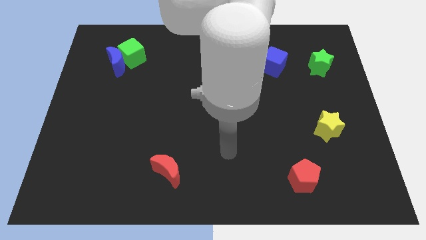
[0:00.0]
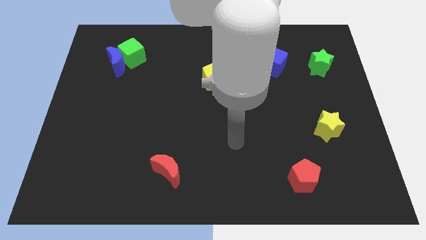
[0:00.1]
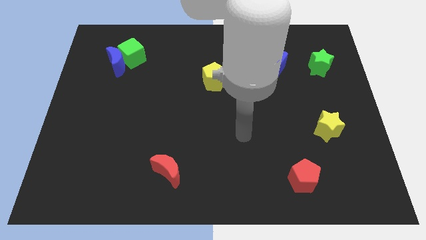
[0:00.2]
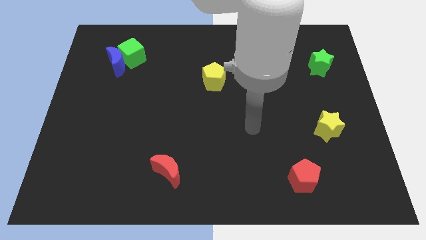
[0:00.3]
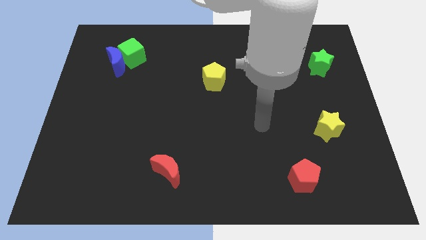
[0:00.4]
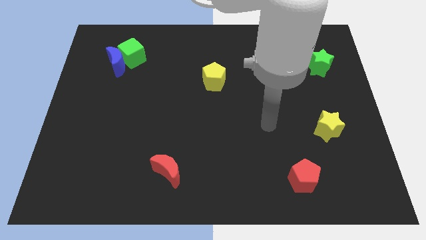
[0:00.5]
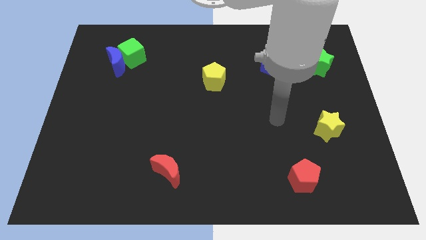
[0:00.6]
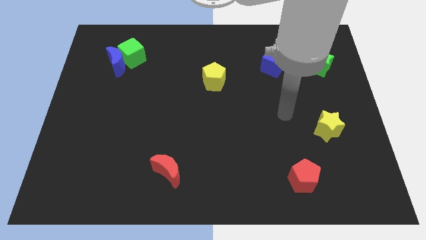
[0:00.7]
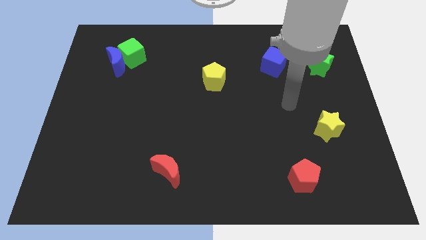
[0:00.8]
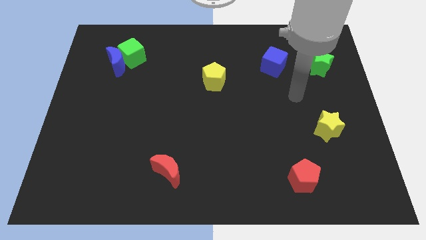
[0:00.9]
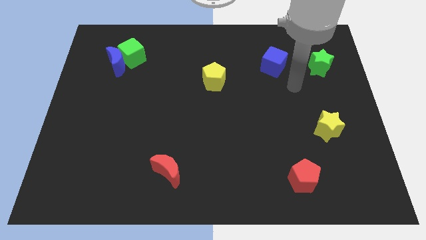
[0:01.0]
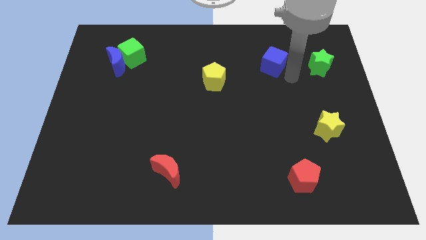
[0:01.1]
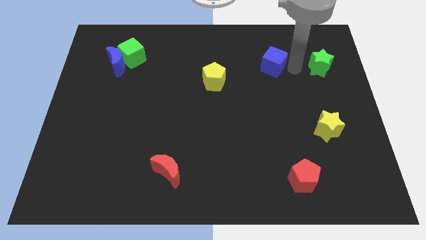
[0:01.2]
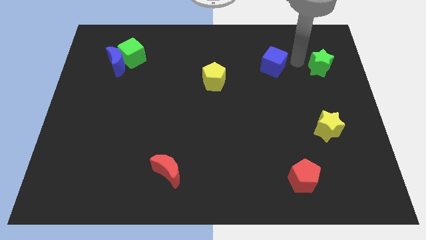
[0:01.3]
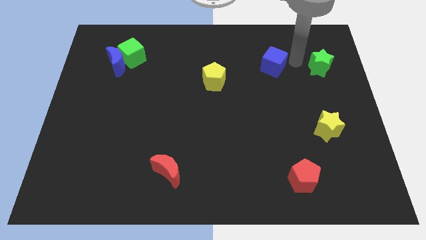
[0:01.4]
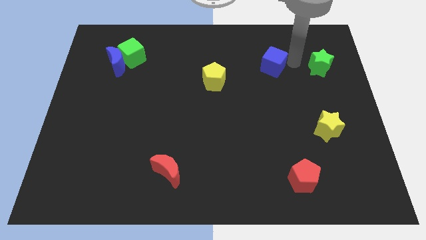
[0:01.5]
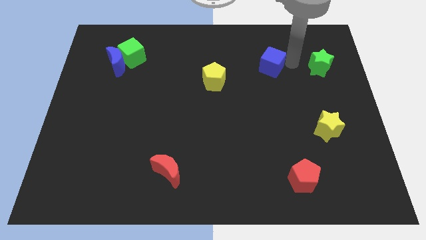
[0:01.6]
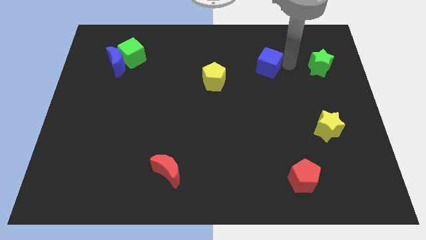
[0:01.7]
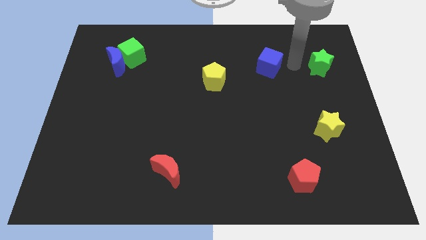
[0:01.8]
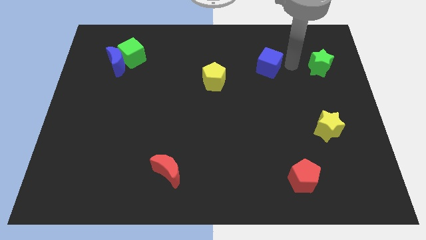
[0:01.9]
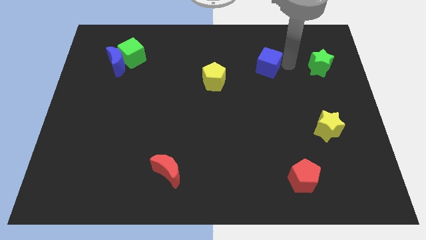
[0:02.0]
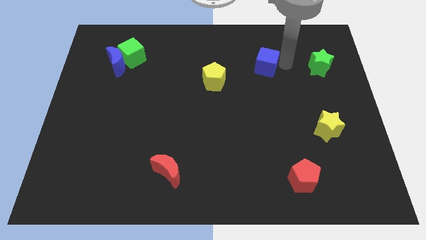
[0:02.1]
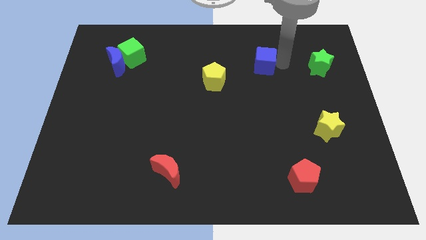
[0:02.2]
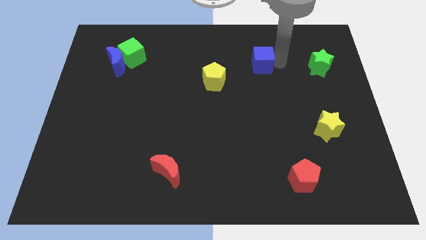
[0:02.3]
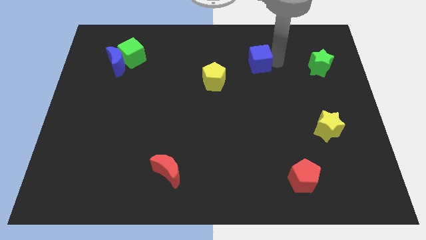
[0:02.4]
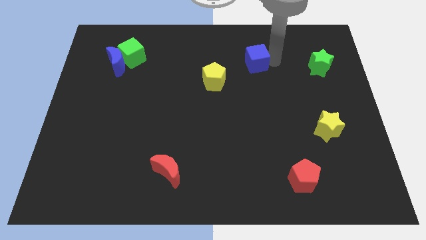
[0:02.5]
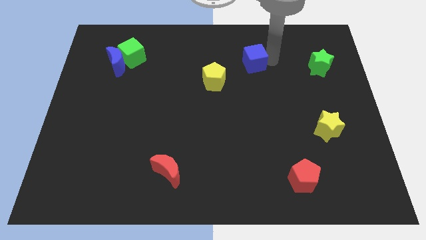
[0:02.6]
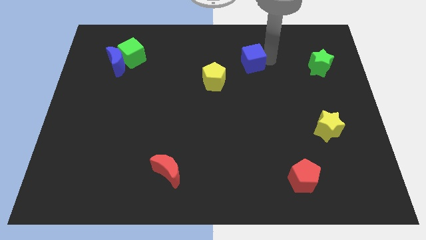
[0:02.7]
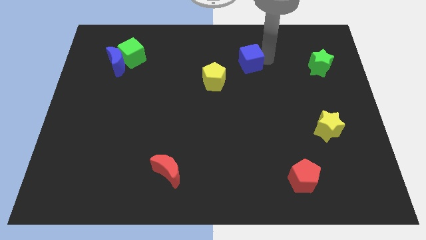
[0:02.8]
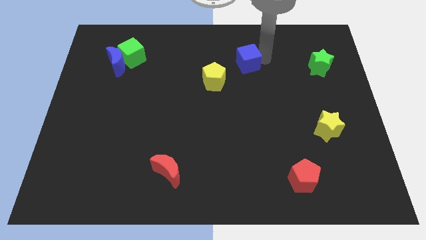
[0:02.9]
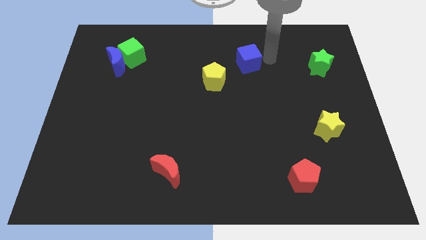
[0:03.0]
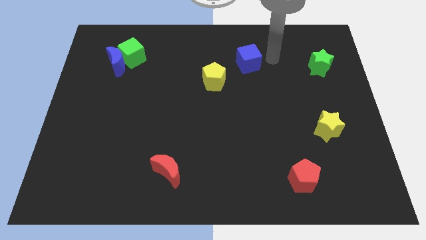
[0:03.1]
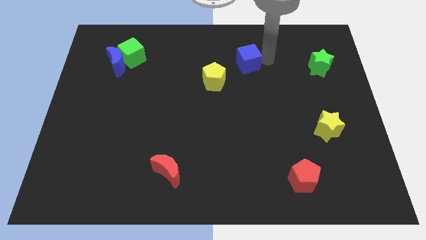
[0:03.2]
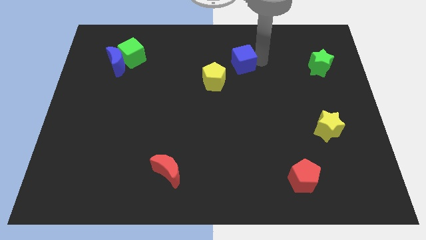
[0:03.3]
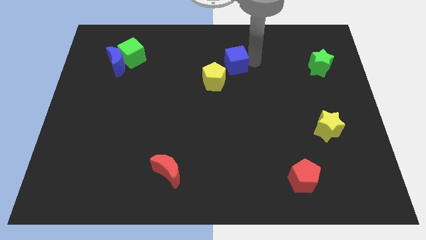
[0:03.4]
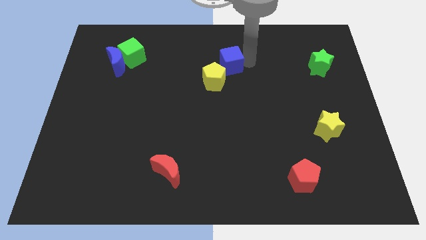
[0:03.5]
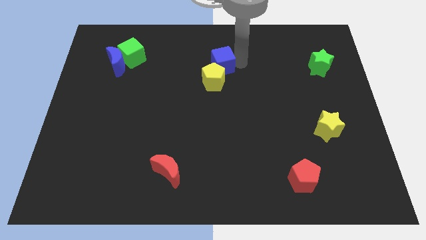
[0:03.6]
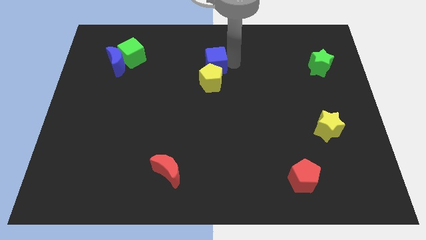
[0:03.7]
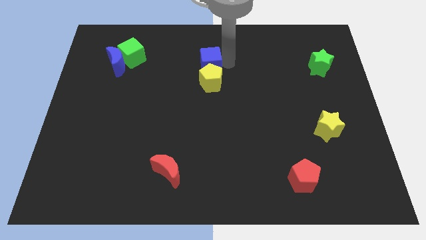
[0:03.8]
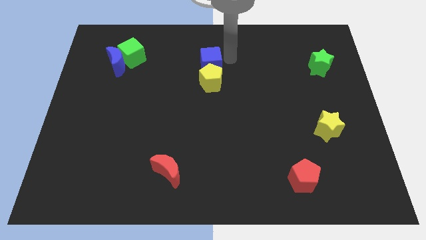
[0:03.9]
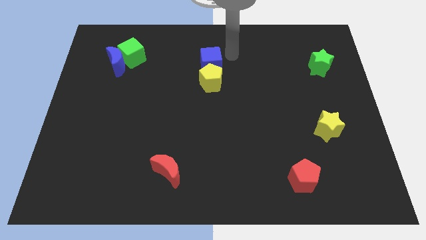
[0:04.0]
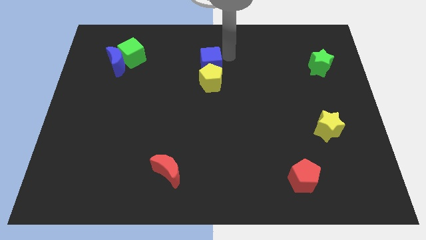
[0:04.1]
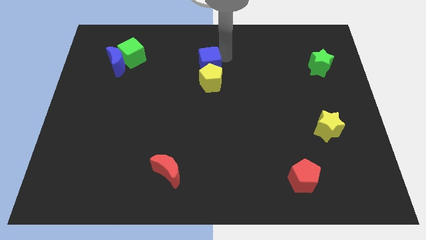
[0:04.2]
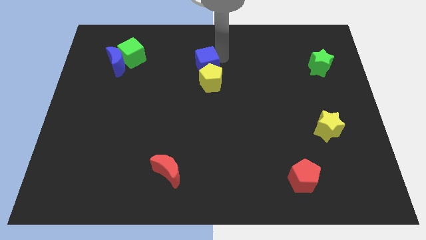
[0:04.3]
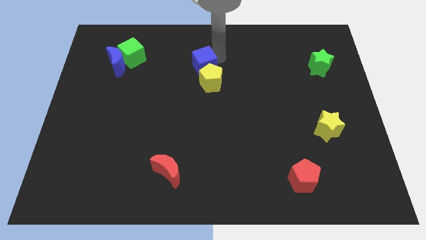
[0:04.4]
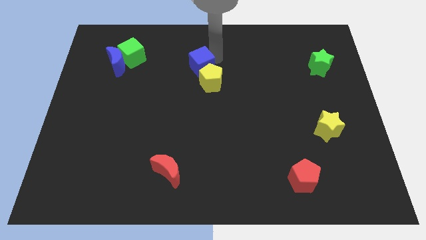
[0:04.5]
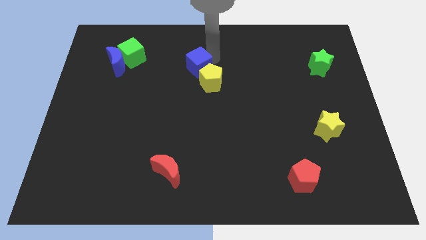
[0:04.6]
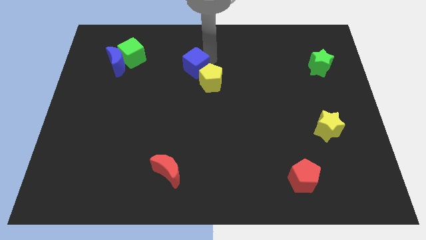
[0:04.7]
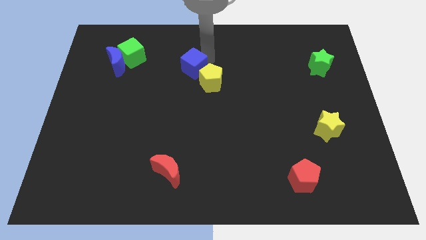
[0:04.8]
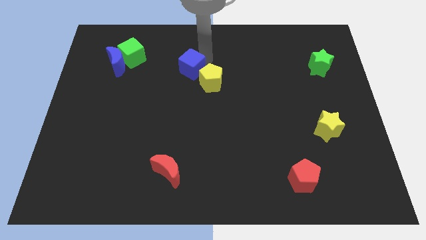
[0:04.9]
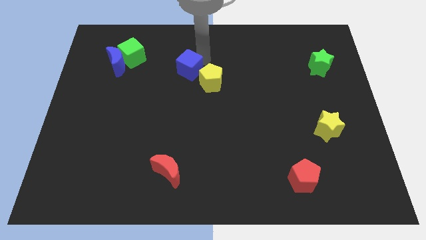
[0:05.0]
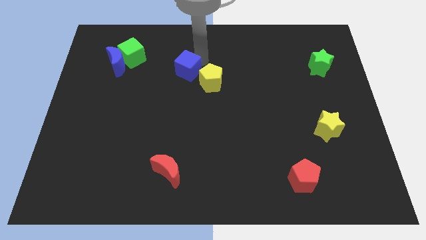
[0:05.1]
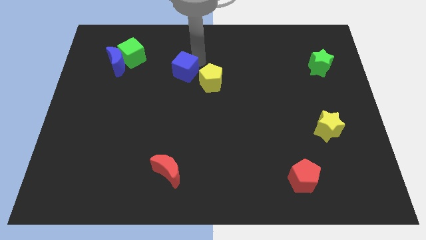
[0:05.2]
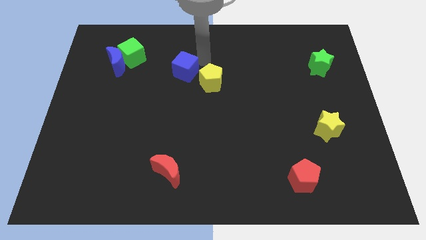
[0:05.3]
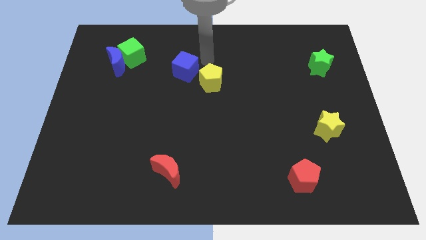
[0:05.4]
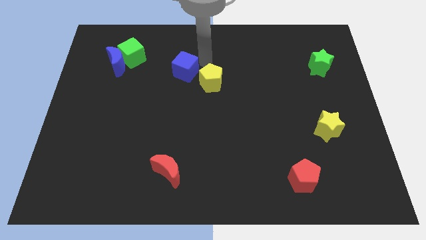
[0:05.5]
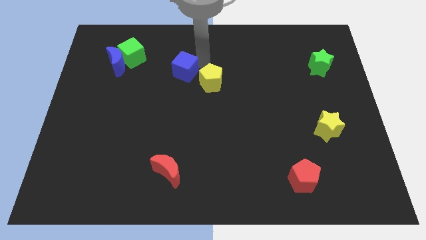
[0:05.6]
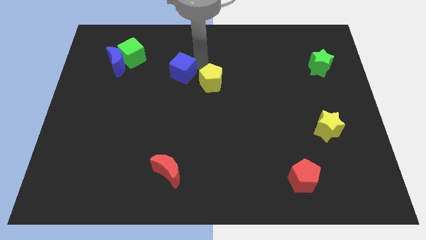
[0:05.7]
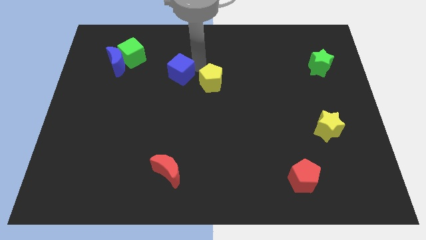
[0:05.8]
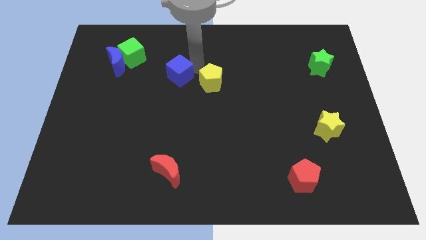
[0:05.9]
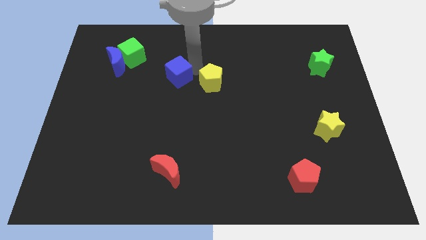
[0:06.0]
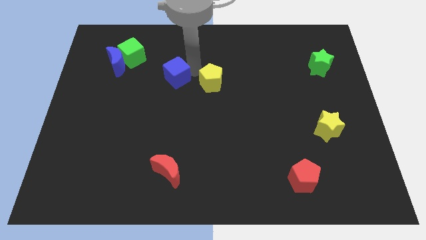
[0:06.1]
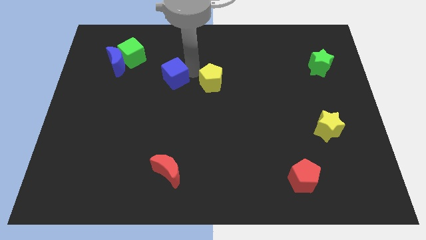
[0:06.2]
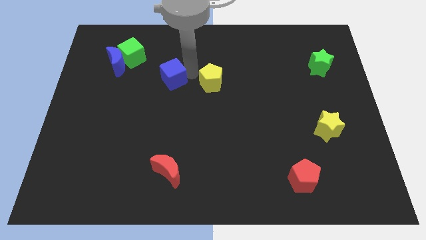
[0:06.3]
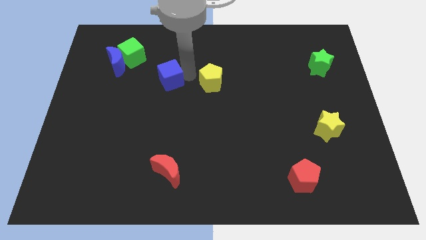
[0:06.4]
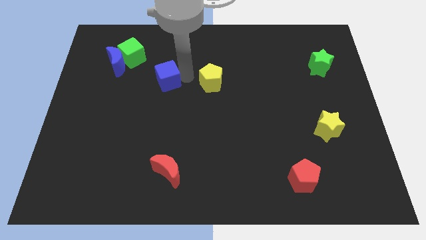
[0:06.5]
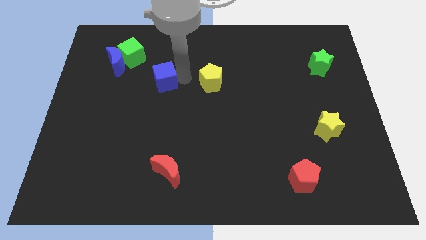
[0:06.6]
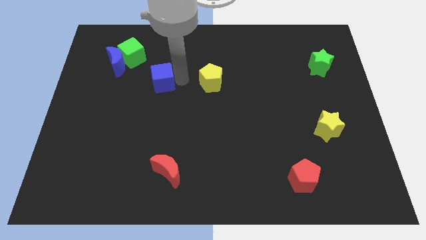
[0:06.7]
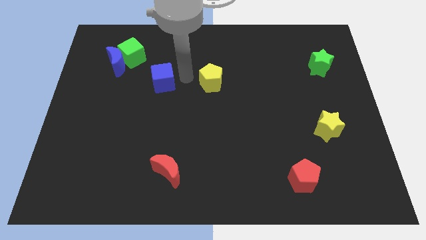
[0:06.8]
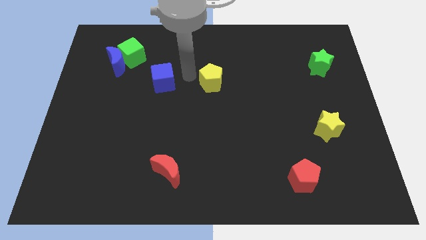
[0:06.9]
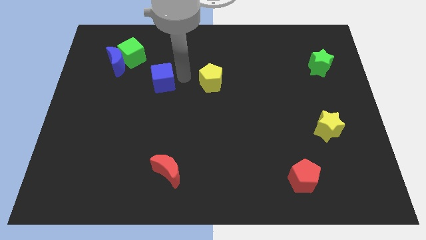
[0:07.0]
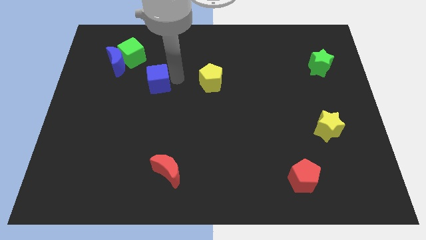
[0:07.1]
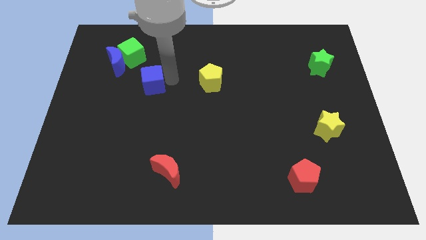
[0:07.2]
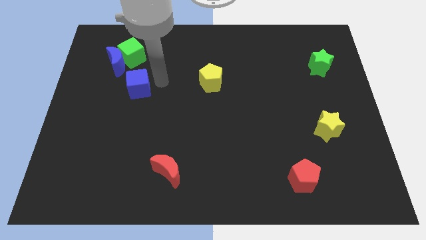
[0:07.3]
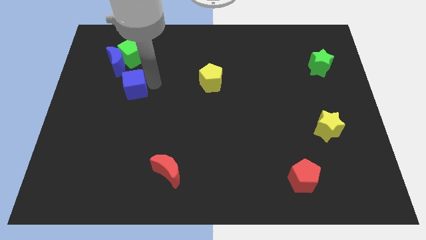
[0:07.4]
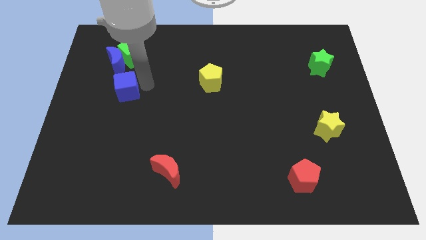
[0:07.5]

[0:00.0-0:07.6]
slide the blue cube to the bottom of the blue moon
